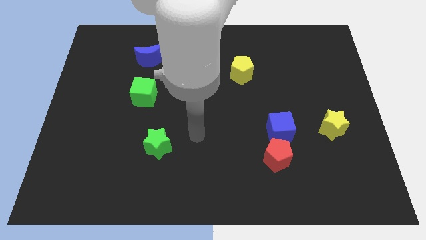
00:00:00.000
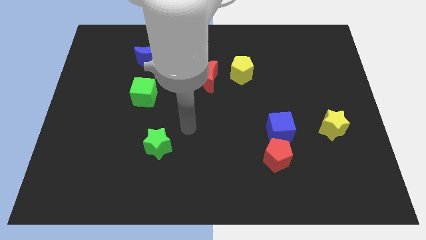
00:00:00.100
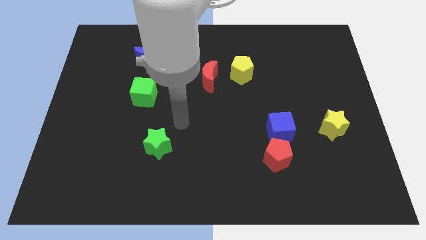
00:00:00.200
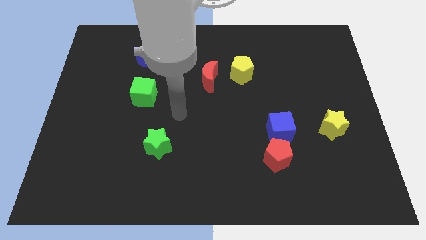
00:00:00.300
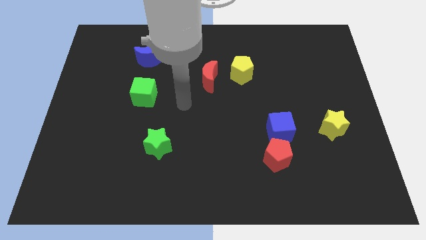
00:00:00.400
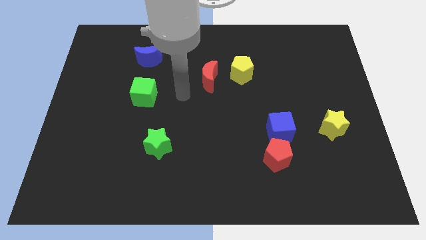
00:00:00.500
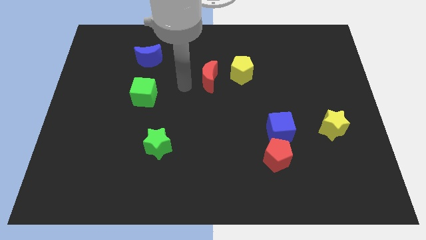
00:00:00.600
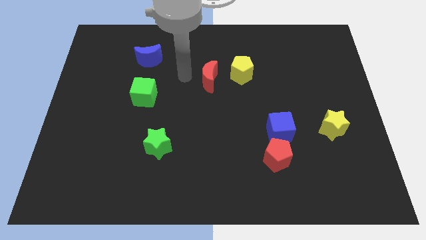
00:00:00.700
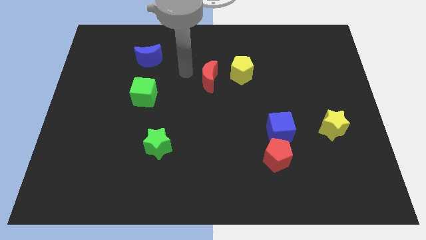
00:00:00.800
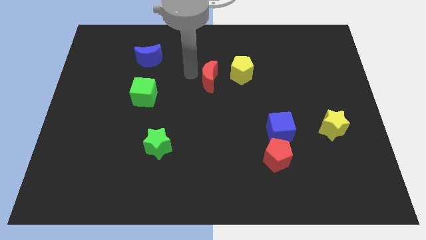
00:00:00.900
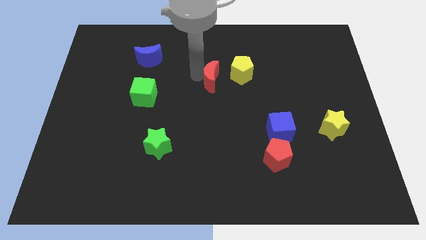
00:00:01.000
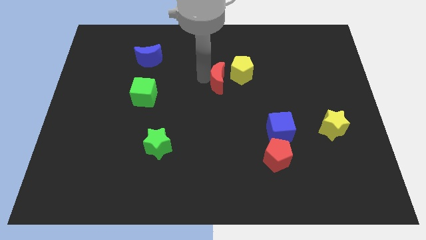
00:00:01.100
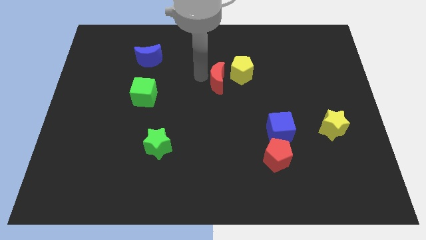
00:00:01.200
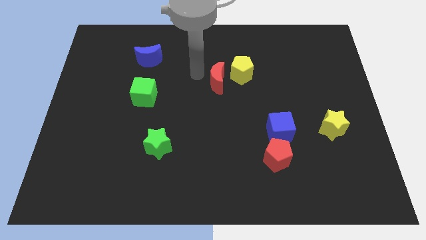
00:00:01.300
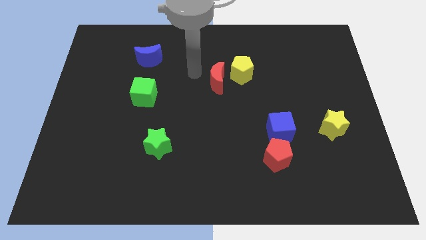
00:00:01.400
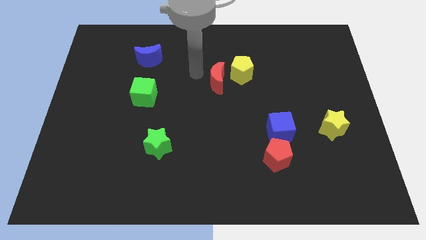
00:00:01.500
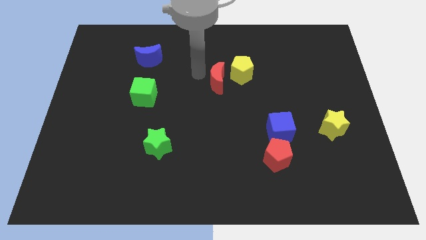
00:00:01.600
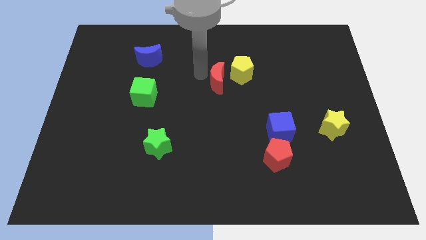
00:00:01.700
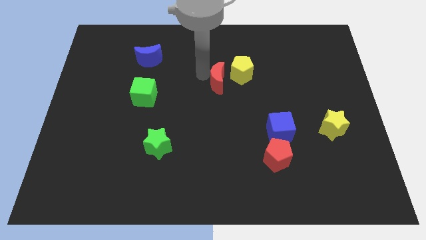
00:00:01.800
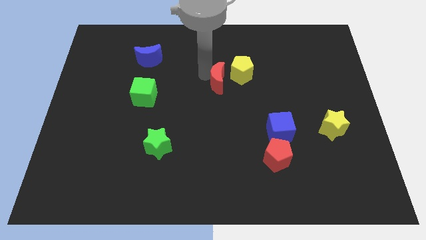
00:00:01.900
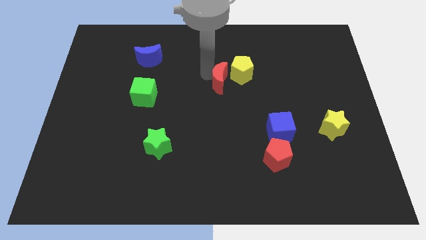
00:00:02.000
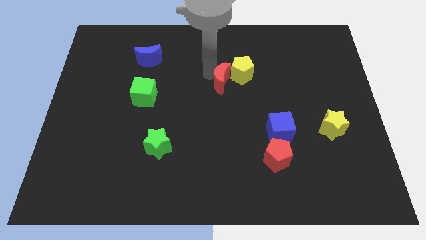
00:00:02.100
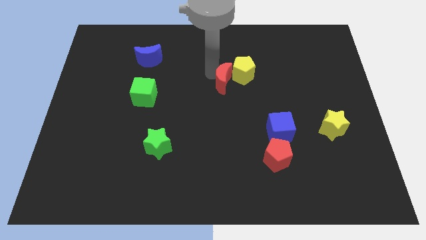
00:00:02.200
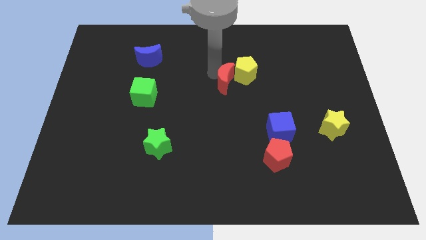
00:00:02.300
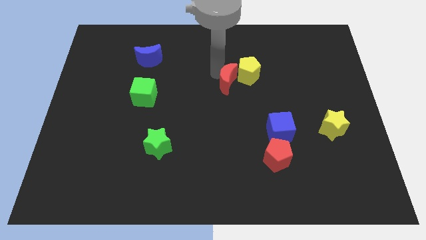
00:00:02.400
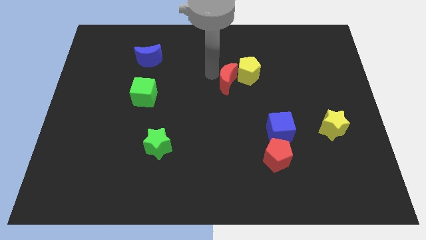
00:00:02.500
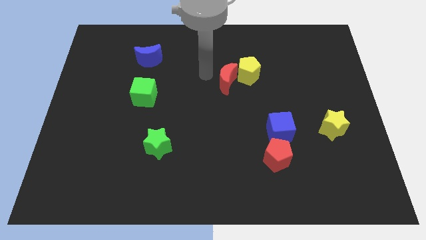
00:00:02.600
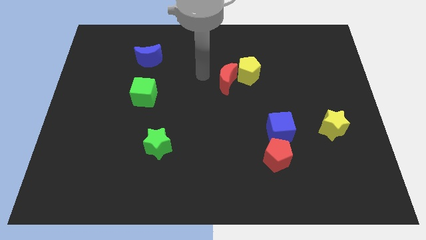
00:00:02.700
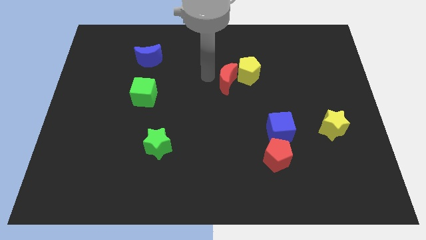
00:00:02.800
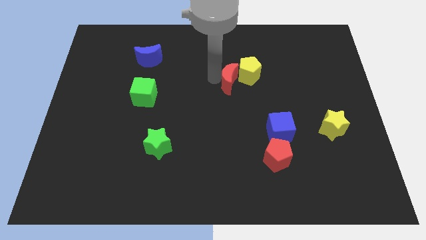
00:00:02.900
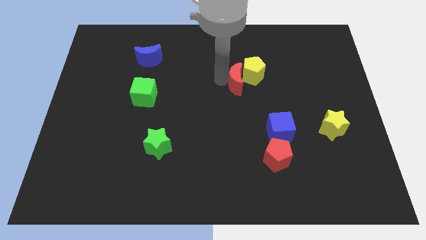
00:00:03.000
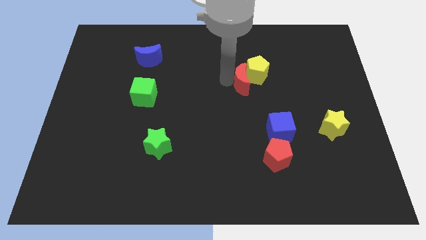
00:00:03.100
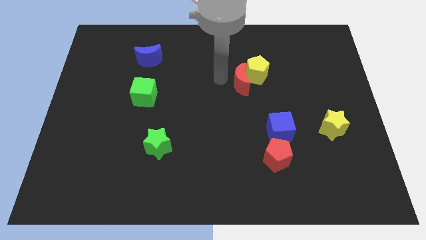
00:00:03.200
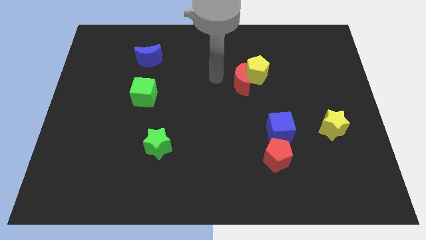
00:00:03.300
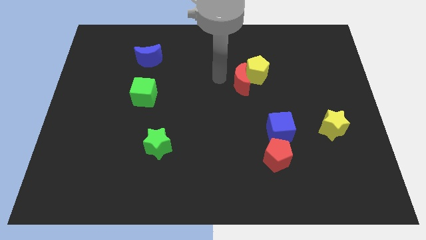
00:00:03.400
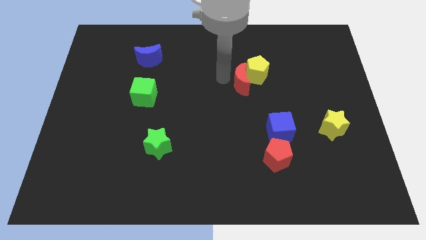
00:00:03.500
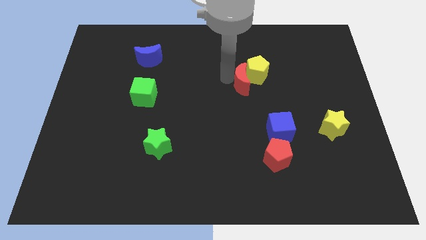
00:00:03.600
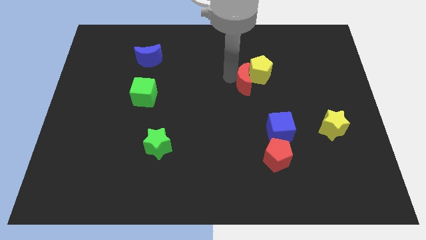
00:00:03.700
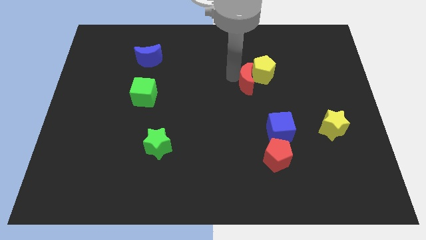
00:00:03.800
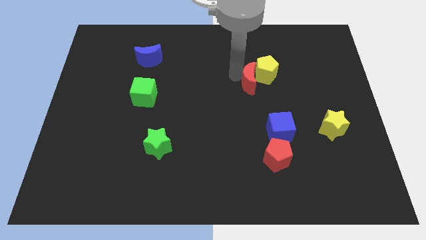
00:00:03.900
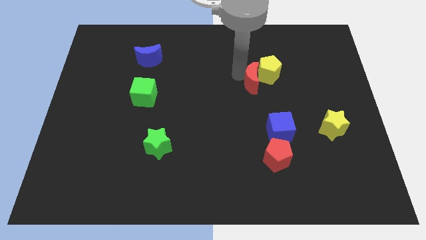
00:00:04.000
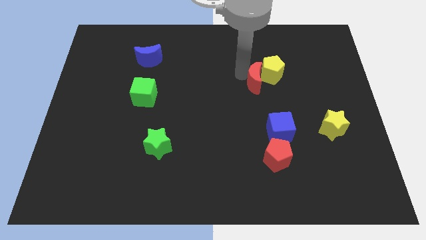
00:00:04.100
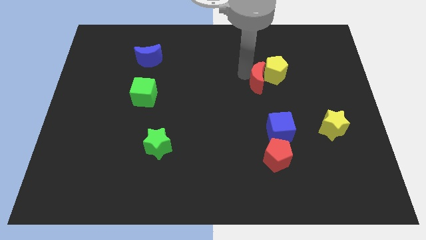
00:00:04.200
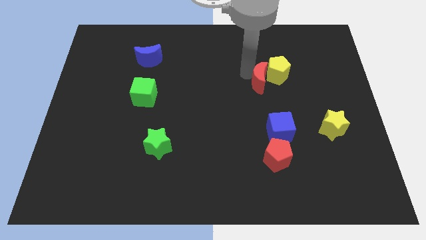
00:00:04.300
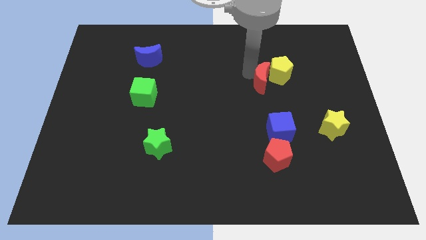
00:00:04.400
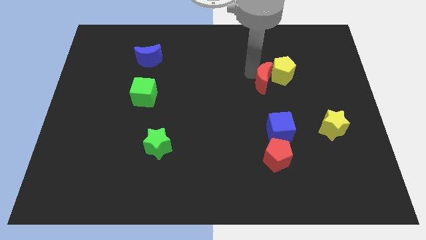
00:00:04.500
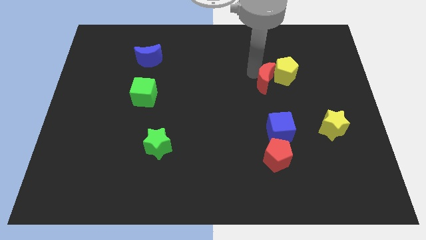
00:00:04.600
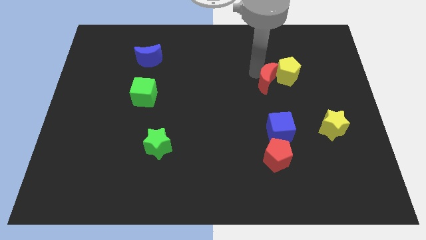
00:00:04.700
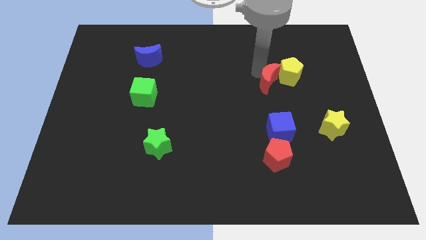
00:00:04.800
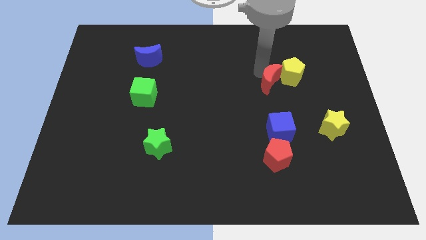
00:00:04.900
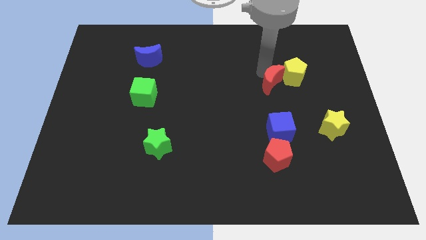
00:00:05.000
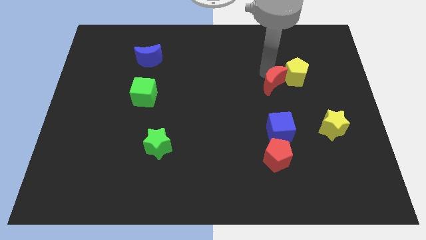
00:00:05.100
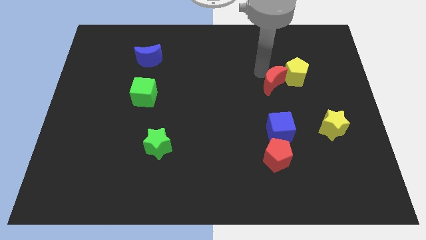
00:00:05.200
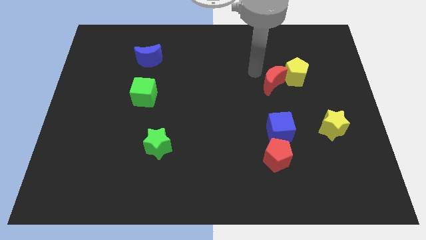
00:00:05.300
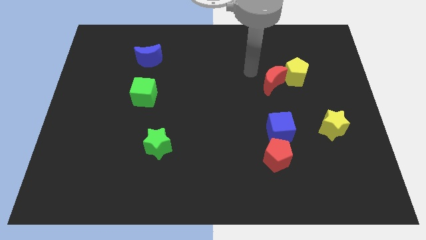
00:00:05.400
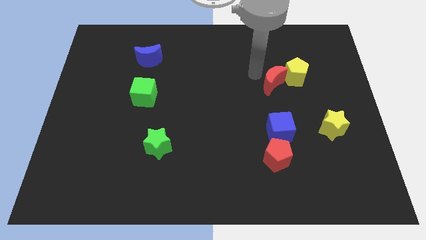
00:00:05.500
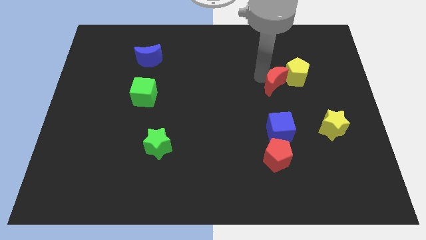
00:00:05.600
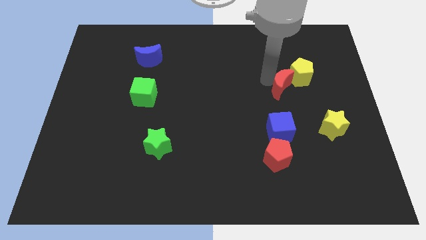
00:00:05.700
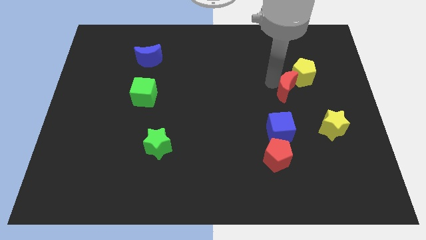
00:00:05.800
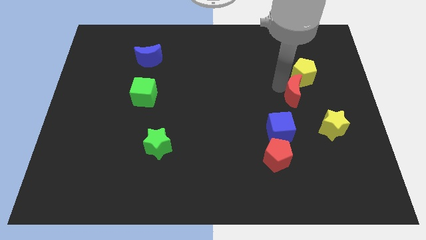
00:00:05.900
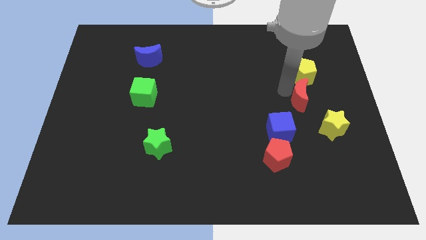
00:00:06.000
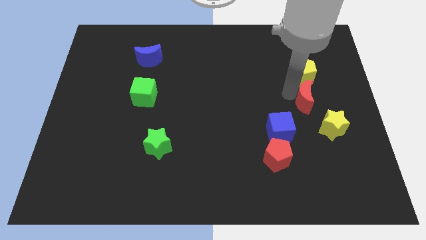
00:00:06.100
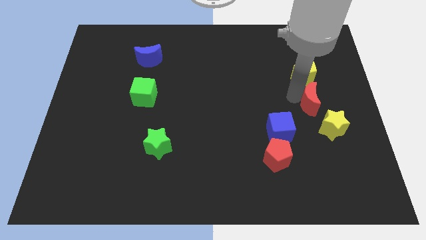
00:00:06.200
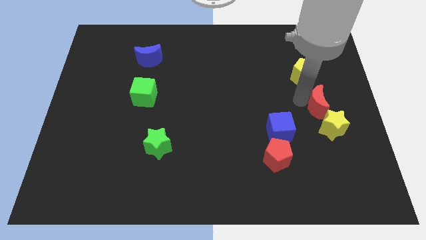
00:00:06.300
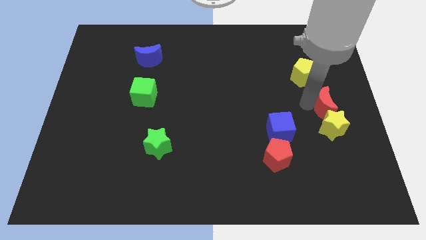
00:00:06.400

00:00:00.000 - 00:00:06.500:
push the red moon to the center right

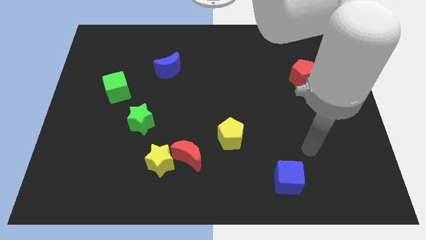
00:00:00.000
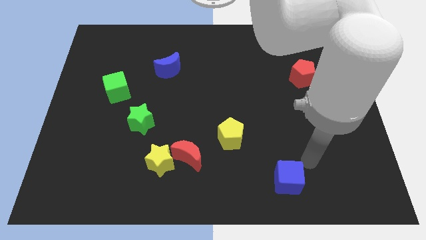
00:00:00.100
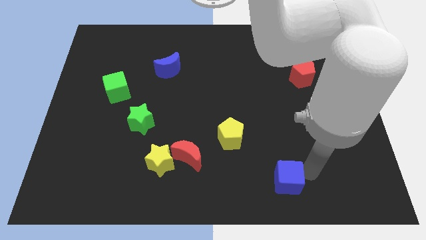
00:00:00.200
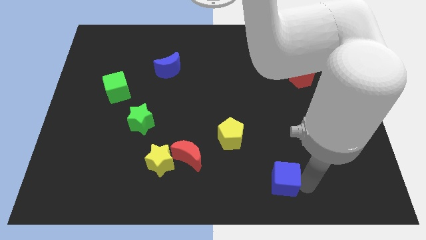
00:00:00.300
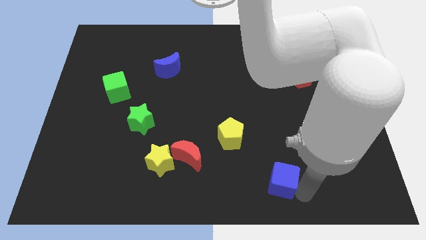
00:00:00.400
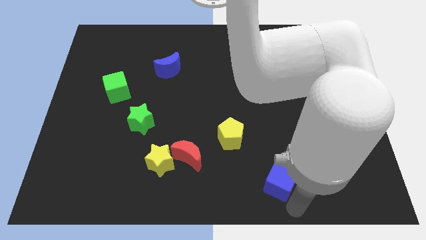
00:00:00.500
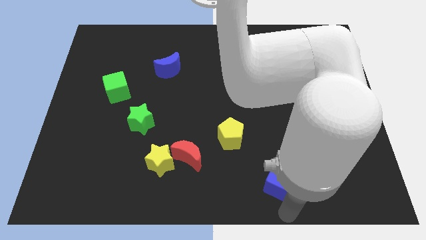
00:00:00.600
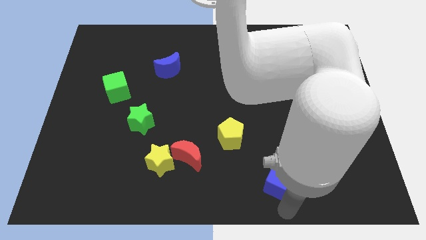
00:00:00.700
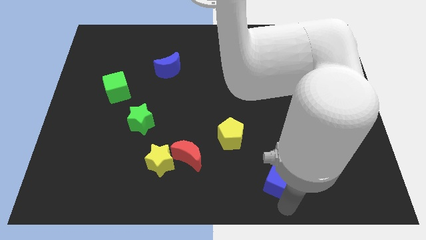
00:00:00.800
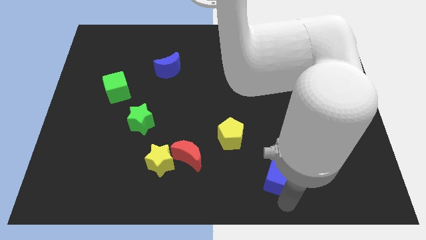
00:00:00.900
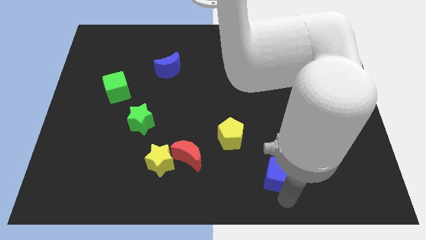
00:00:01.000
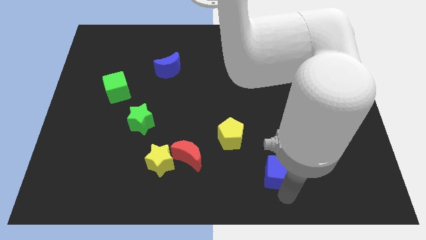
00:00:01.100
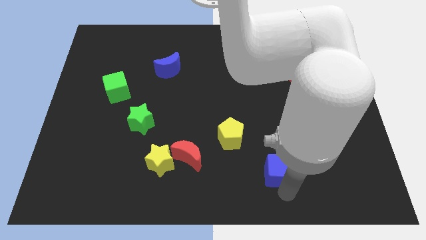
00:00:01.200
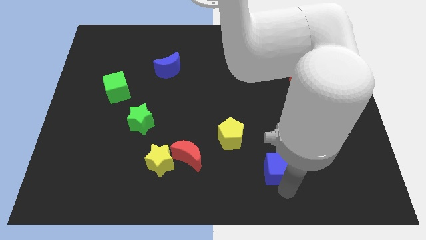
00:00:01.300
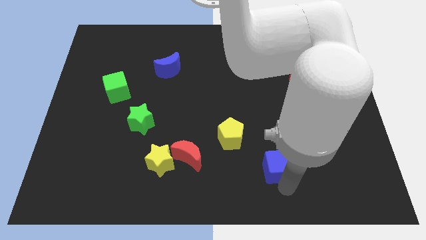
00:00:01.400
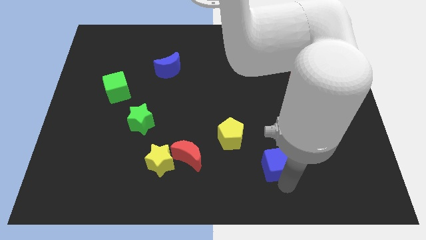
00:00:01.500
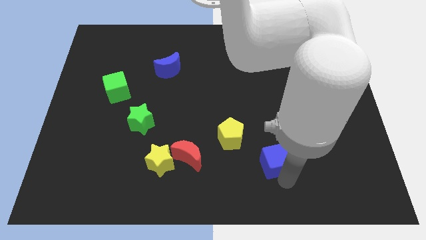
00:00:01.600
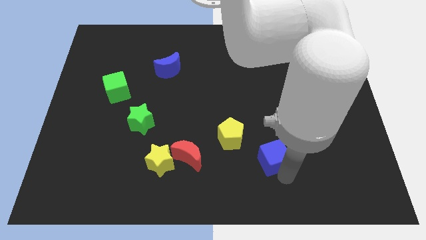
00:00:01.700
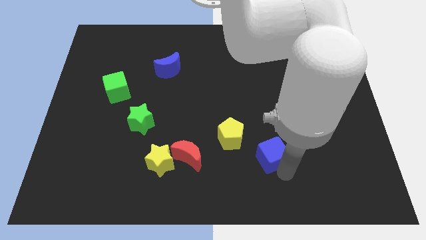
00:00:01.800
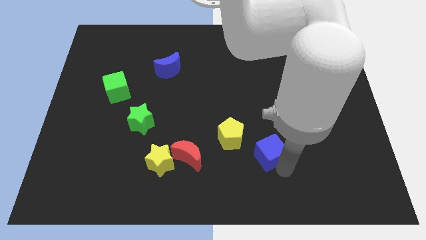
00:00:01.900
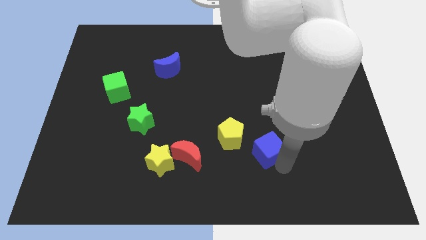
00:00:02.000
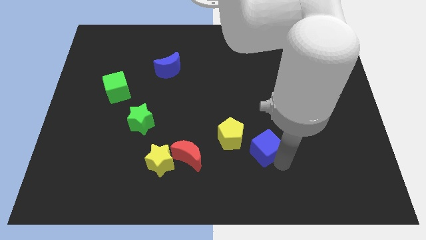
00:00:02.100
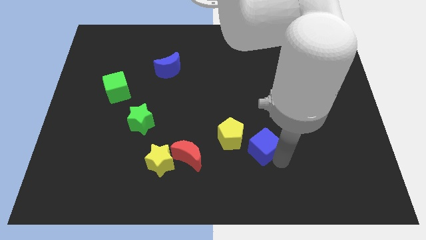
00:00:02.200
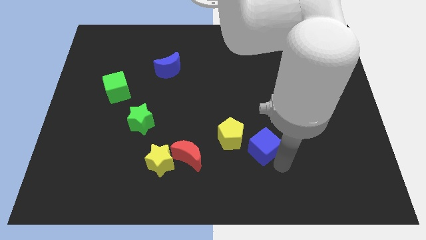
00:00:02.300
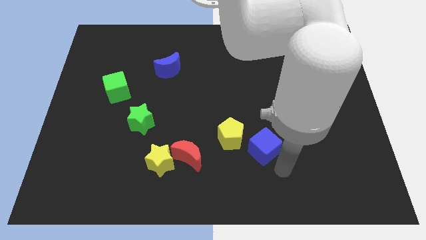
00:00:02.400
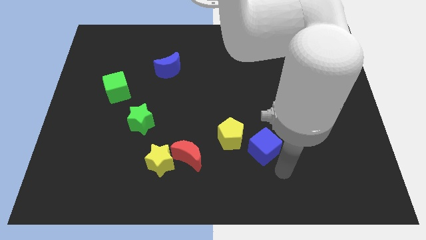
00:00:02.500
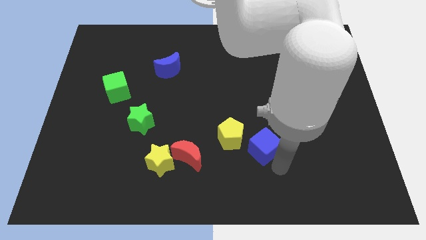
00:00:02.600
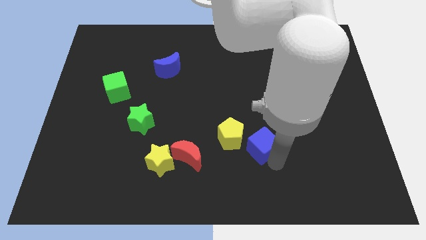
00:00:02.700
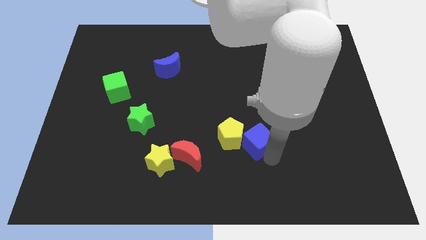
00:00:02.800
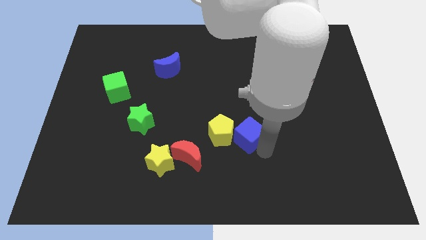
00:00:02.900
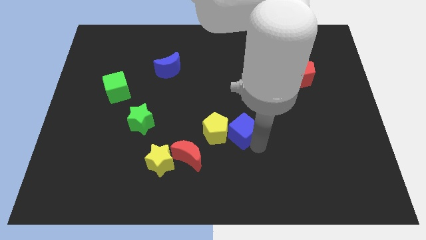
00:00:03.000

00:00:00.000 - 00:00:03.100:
move the blue cube to the middle of the board
